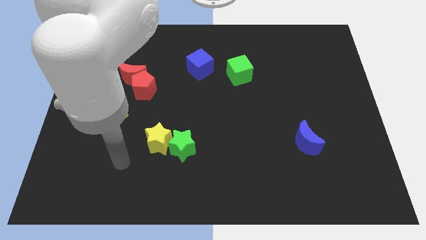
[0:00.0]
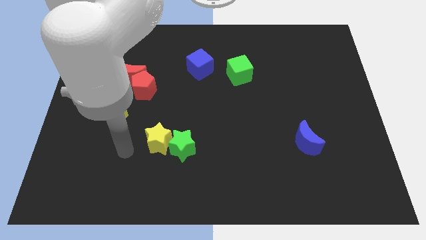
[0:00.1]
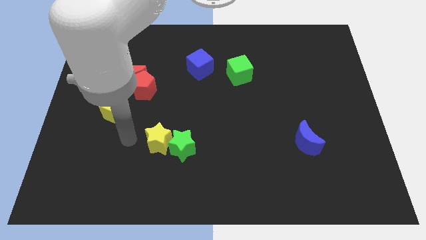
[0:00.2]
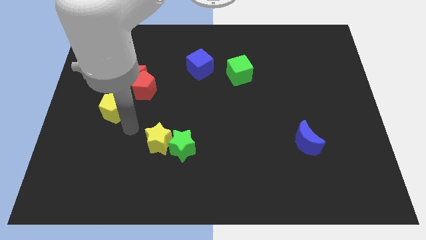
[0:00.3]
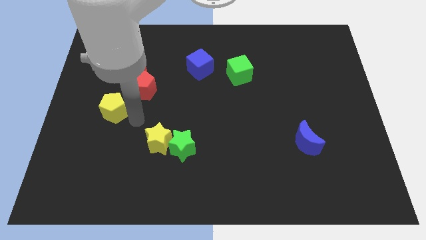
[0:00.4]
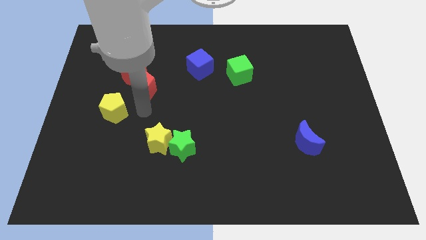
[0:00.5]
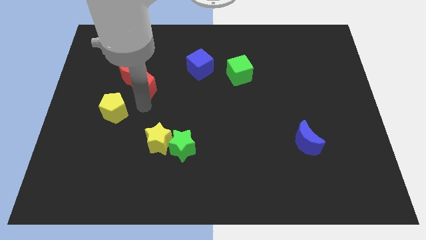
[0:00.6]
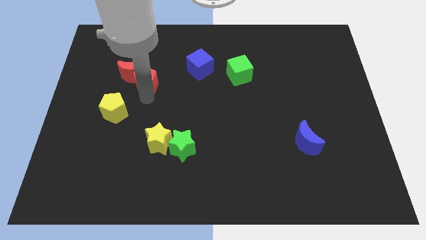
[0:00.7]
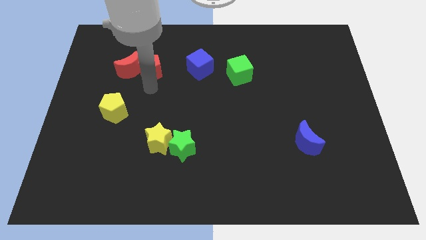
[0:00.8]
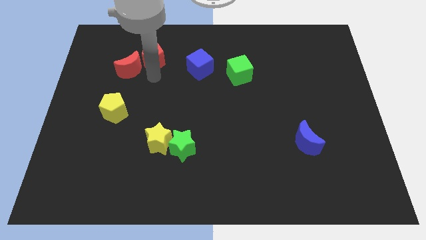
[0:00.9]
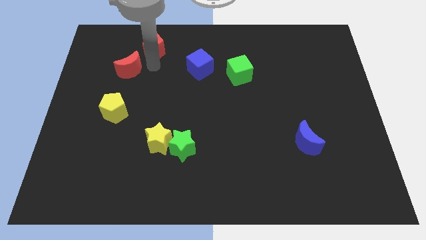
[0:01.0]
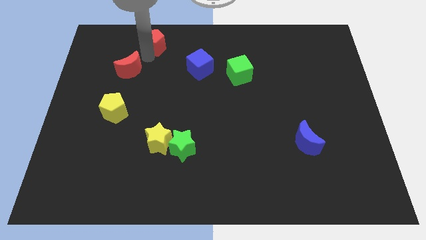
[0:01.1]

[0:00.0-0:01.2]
separate the red moon from the red pentagon

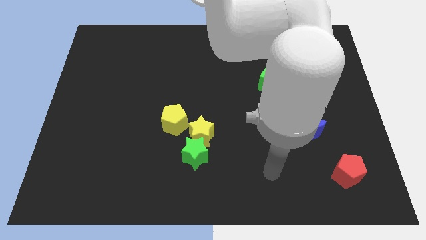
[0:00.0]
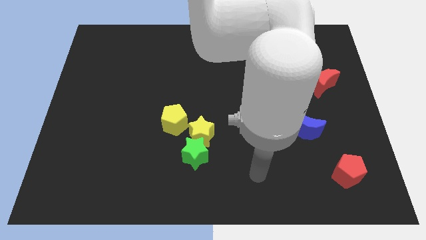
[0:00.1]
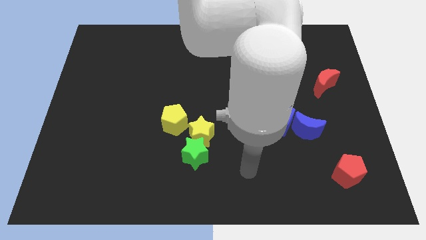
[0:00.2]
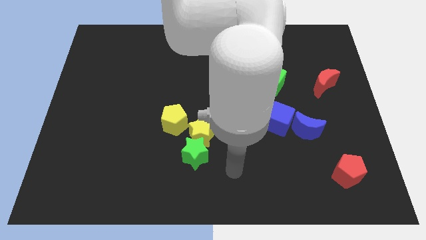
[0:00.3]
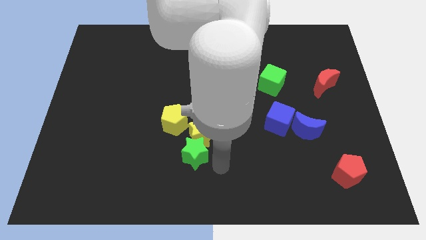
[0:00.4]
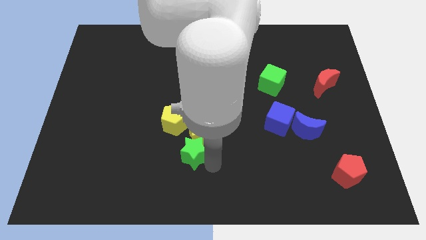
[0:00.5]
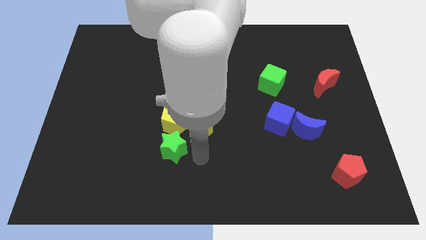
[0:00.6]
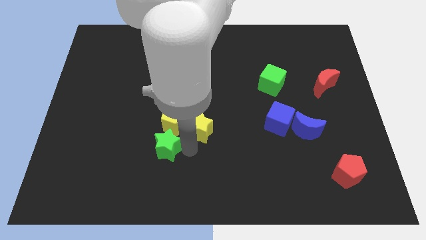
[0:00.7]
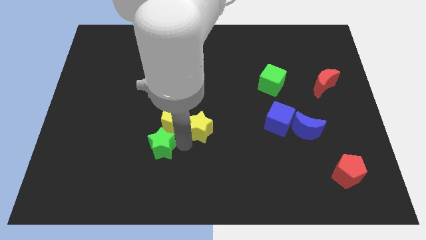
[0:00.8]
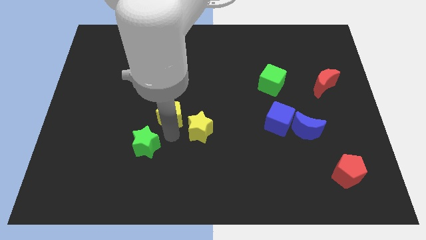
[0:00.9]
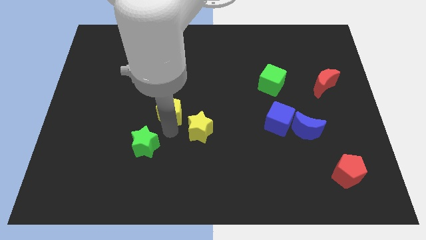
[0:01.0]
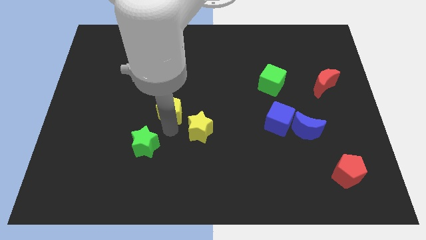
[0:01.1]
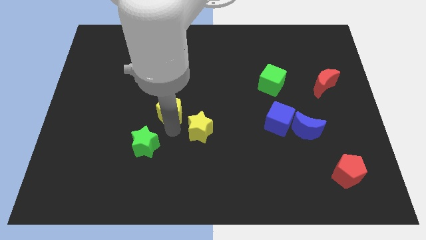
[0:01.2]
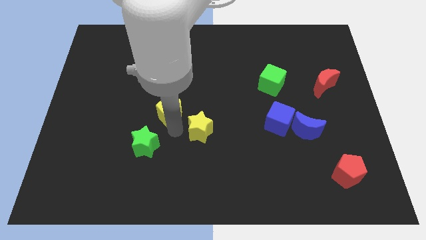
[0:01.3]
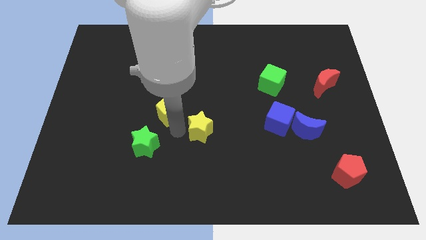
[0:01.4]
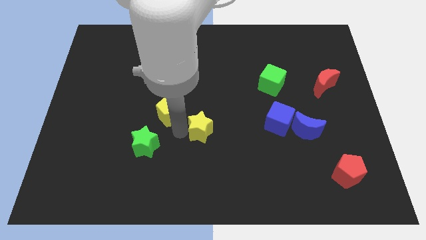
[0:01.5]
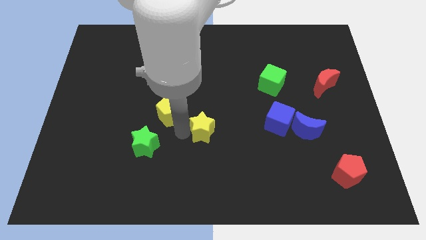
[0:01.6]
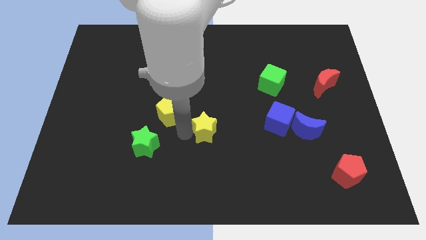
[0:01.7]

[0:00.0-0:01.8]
move the yellow star away from the green star and yellow pentagon

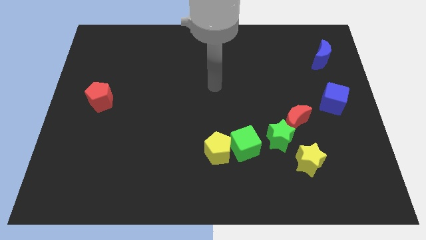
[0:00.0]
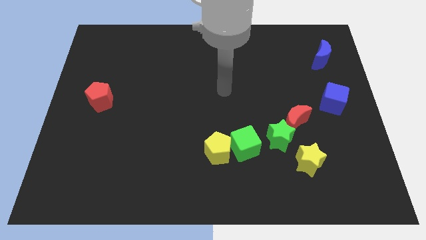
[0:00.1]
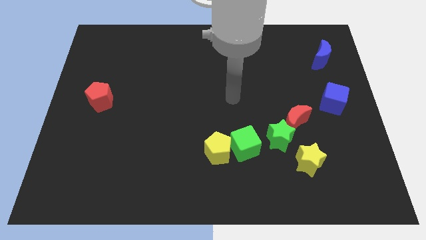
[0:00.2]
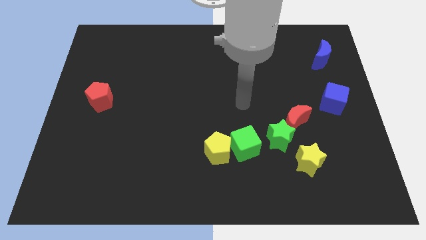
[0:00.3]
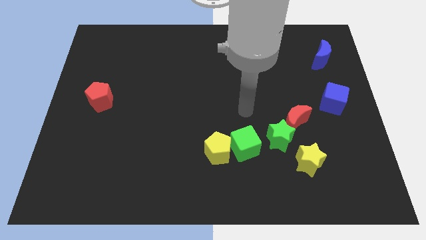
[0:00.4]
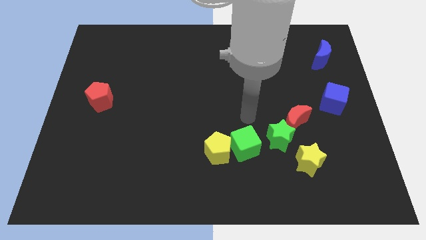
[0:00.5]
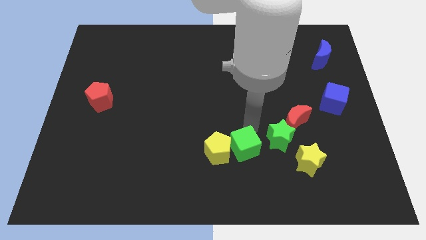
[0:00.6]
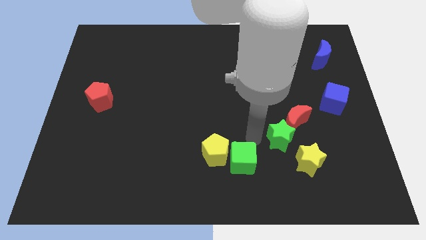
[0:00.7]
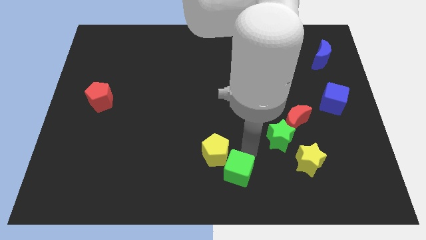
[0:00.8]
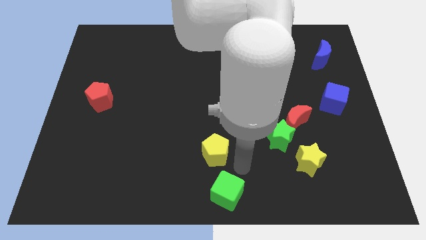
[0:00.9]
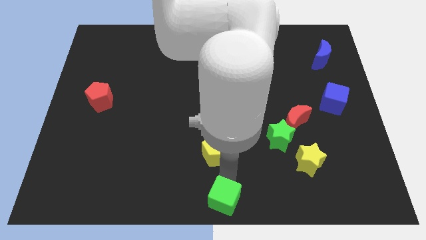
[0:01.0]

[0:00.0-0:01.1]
separate the yellow pentagon from the green cube

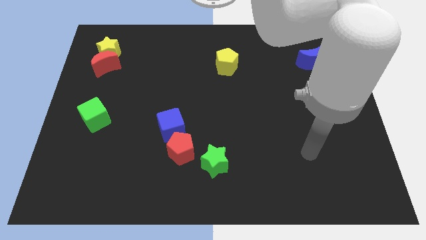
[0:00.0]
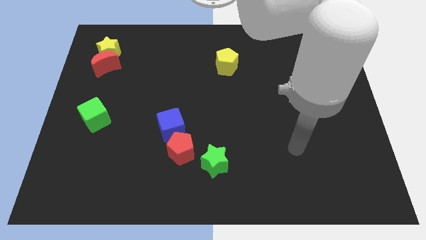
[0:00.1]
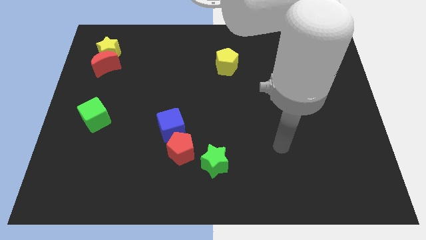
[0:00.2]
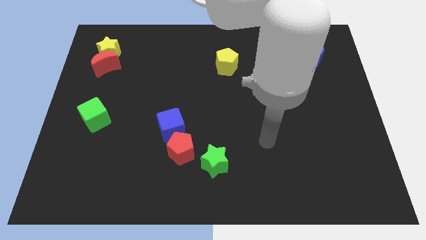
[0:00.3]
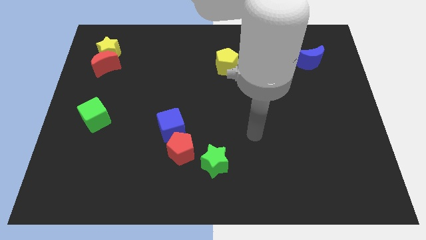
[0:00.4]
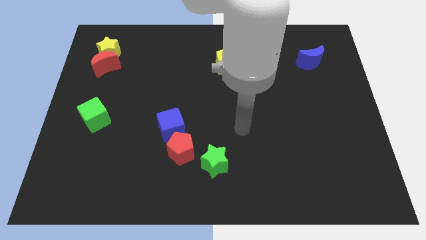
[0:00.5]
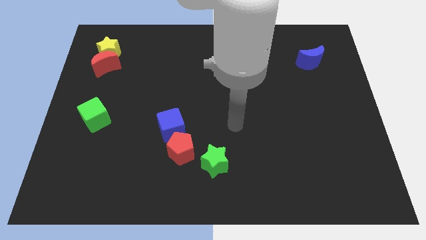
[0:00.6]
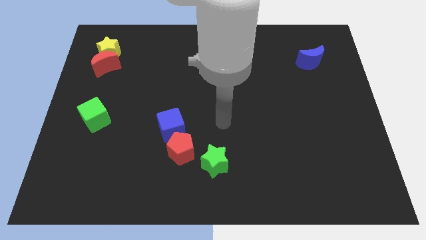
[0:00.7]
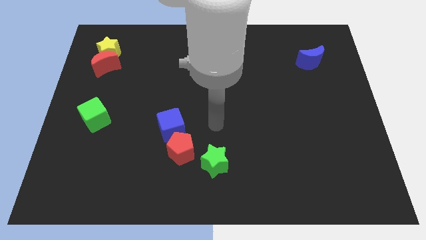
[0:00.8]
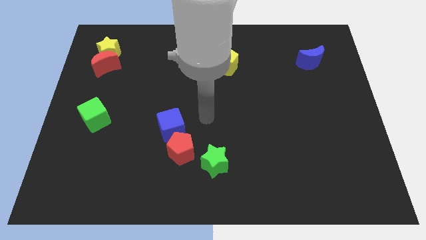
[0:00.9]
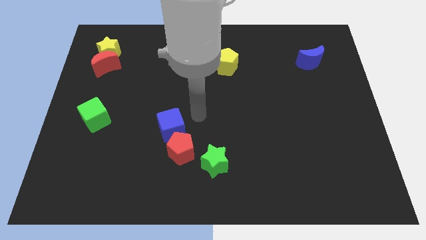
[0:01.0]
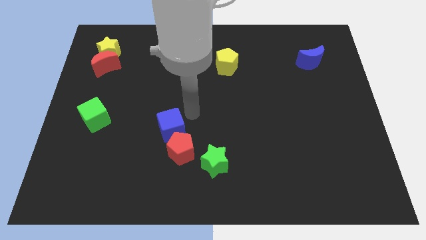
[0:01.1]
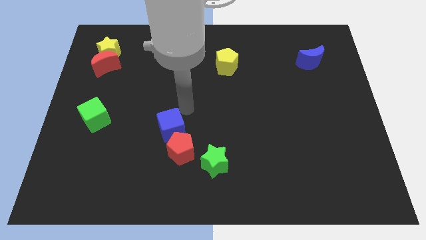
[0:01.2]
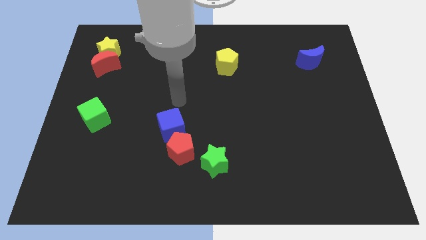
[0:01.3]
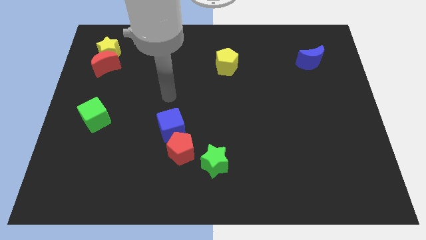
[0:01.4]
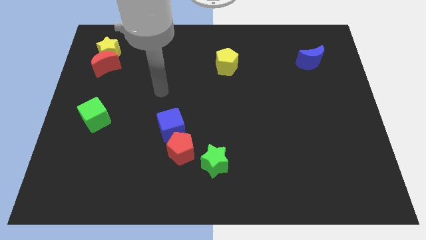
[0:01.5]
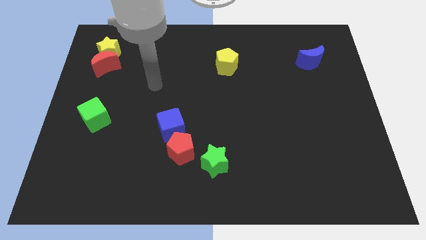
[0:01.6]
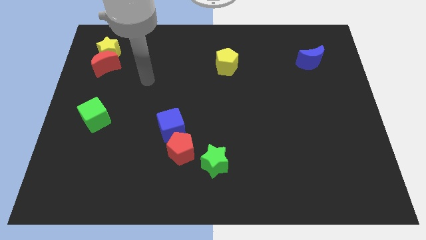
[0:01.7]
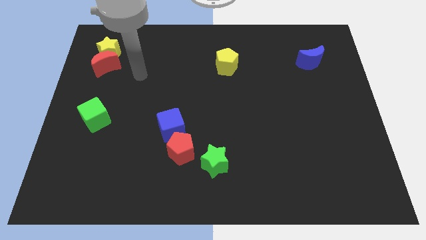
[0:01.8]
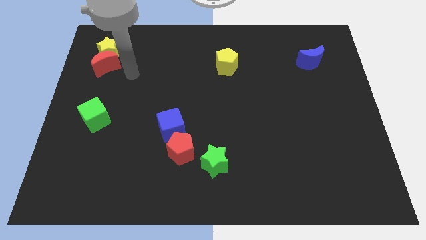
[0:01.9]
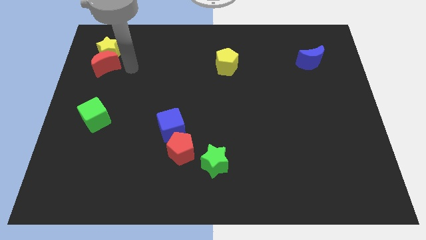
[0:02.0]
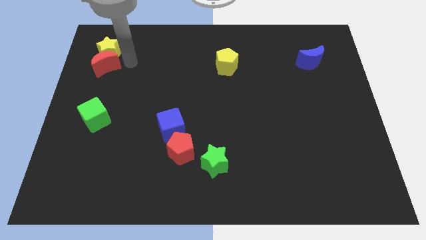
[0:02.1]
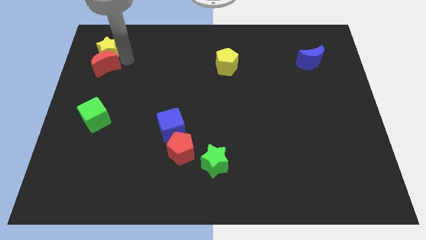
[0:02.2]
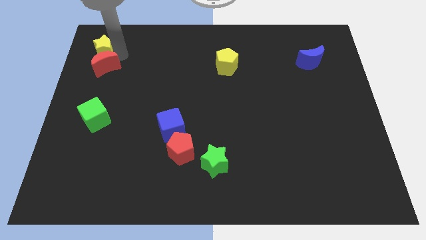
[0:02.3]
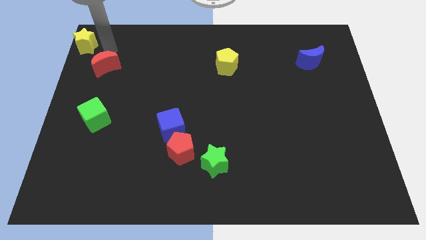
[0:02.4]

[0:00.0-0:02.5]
pull the red moon apart from the yellow star

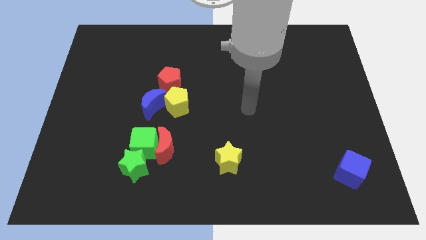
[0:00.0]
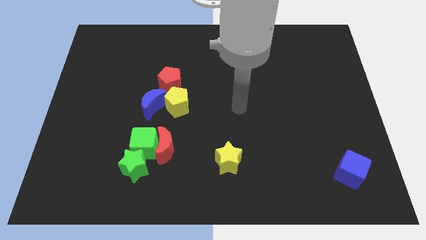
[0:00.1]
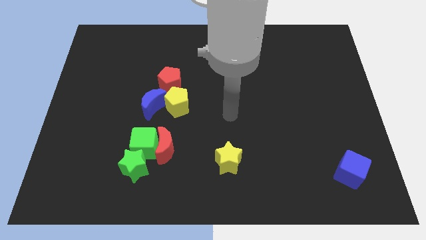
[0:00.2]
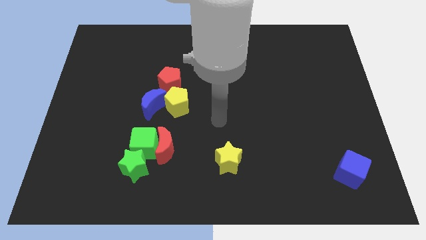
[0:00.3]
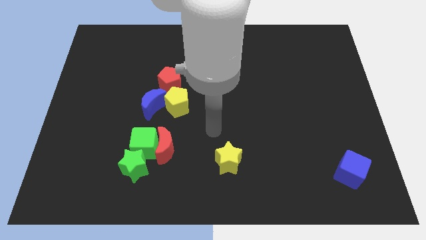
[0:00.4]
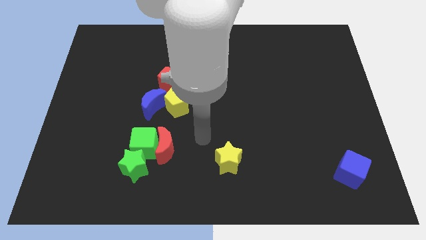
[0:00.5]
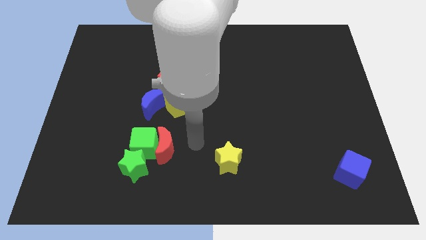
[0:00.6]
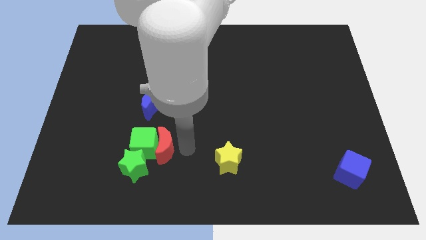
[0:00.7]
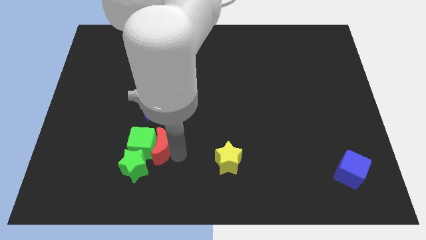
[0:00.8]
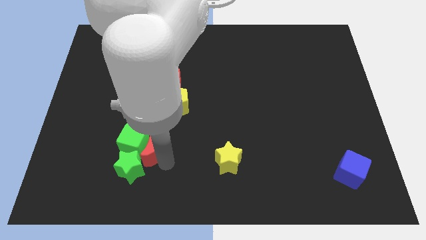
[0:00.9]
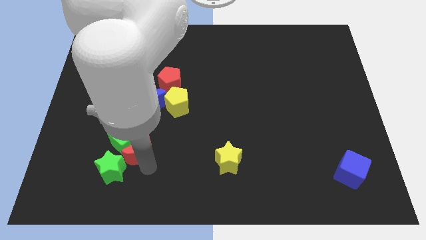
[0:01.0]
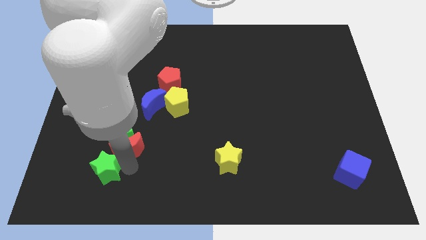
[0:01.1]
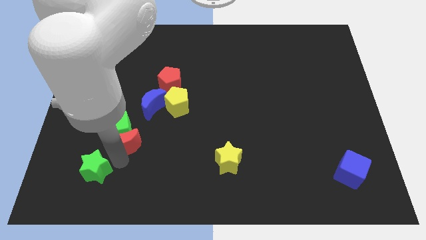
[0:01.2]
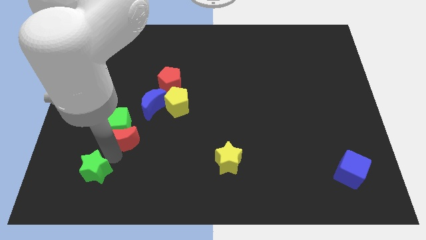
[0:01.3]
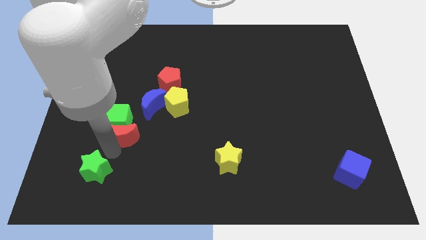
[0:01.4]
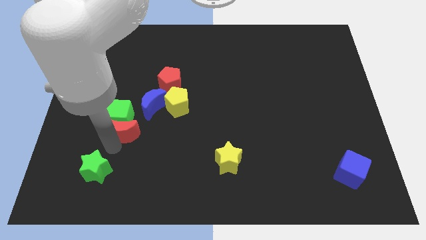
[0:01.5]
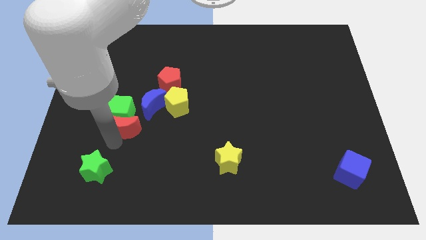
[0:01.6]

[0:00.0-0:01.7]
pull the green cube apart from the red moon and green star

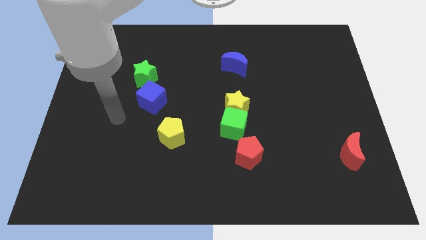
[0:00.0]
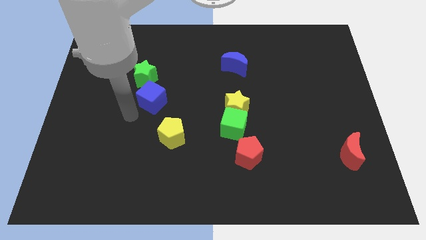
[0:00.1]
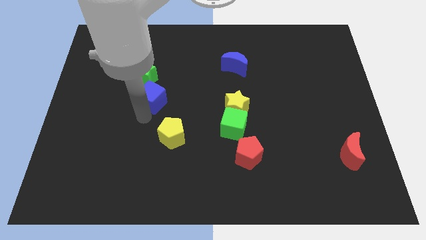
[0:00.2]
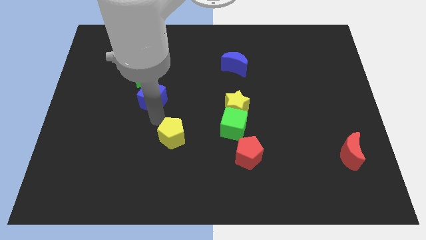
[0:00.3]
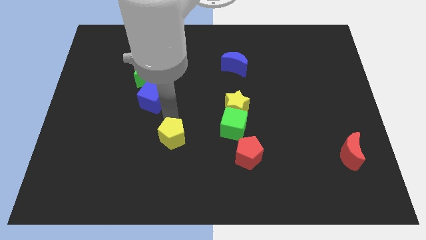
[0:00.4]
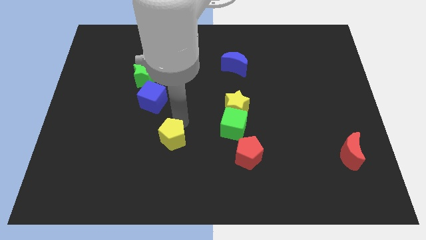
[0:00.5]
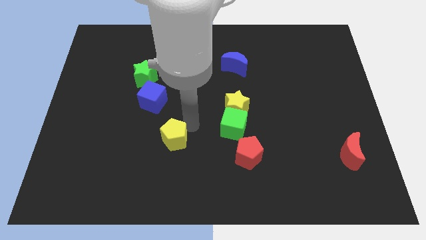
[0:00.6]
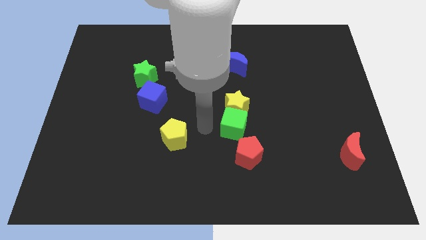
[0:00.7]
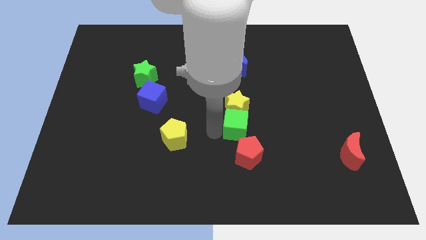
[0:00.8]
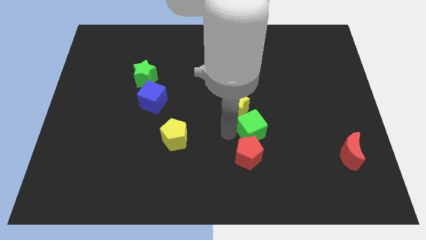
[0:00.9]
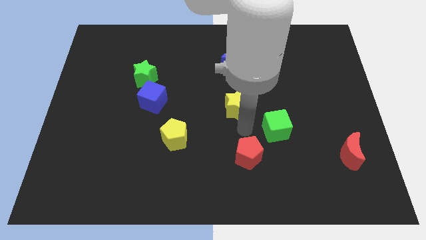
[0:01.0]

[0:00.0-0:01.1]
pull the yellow star apart from the green cube
